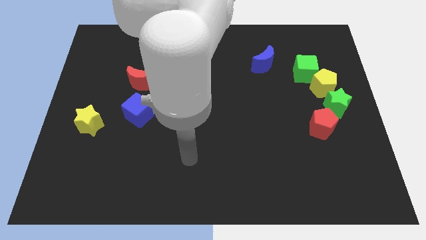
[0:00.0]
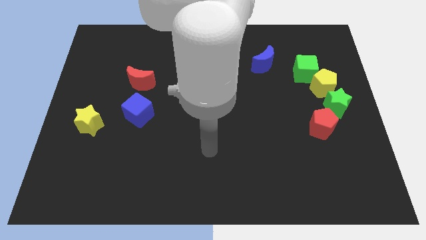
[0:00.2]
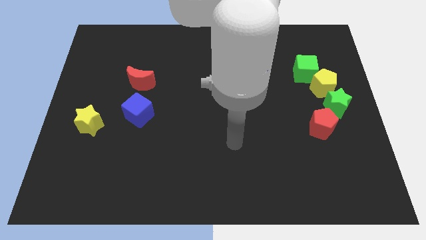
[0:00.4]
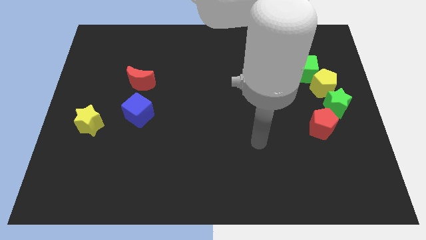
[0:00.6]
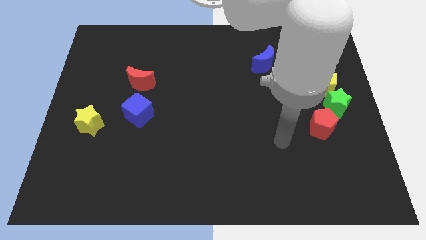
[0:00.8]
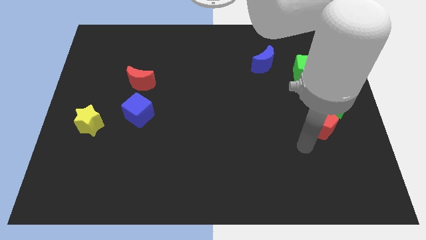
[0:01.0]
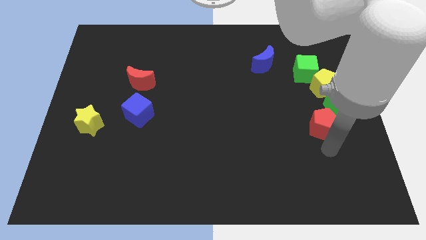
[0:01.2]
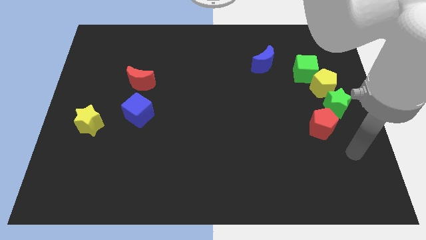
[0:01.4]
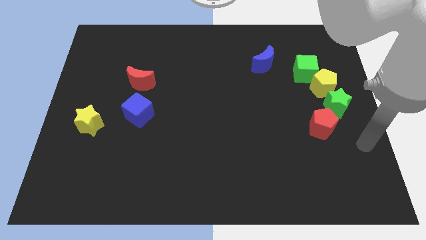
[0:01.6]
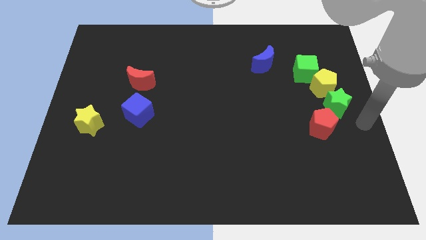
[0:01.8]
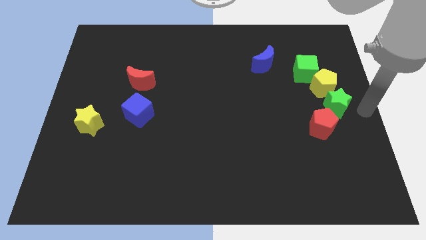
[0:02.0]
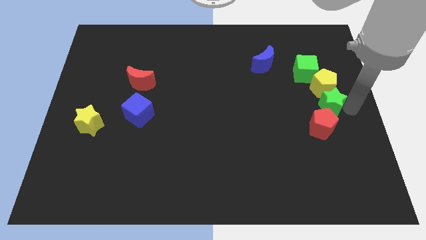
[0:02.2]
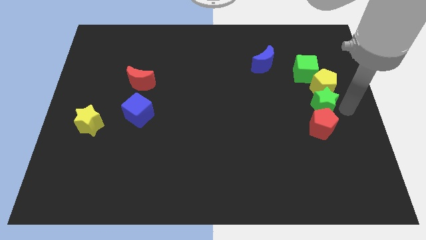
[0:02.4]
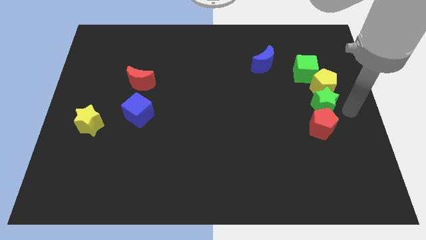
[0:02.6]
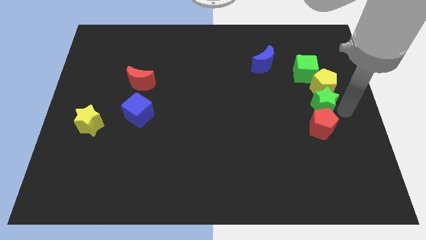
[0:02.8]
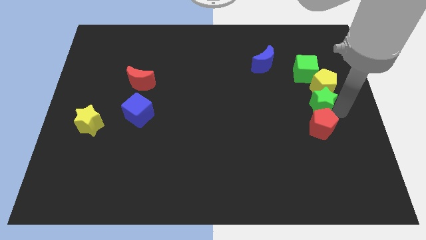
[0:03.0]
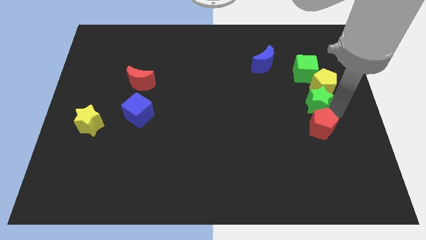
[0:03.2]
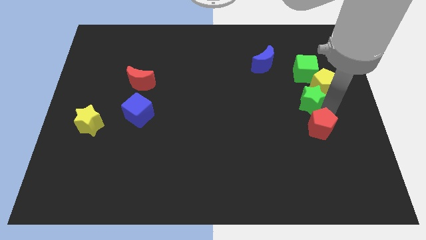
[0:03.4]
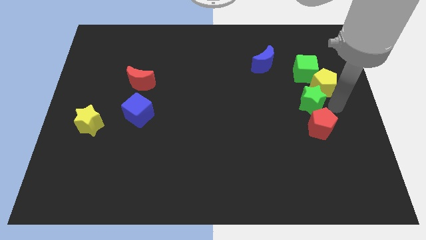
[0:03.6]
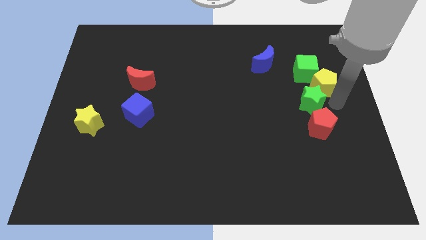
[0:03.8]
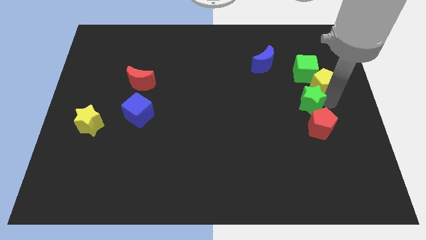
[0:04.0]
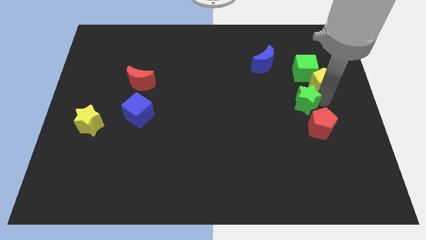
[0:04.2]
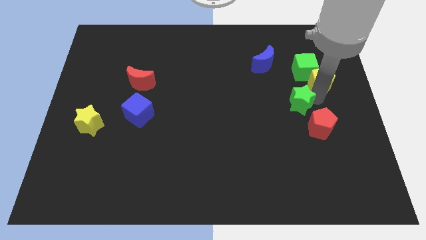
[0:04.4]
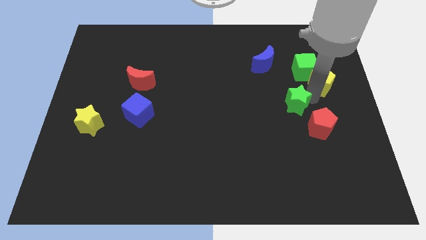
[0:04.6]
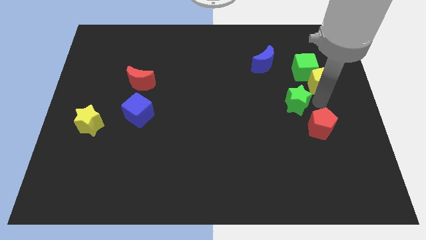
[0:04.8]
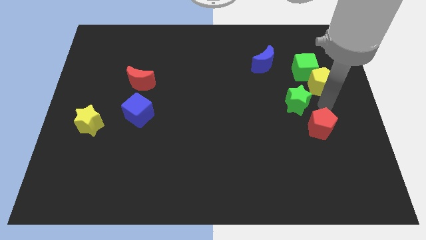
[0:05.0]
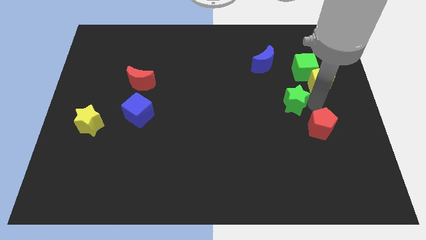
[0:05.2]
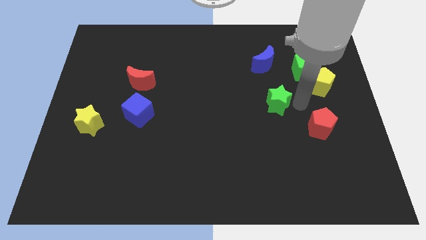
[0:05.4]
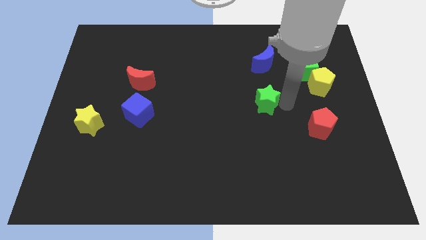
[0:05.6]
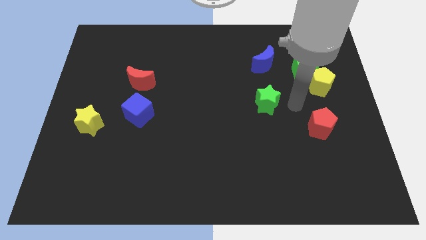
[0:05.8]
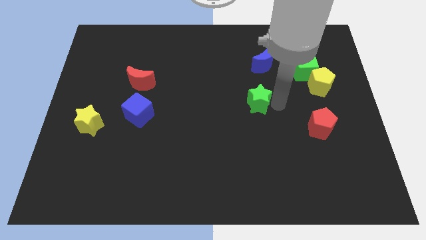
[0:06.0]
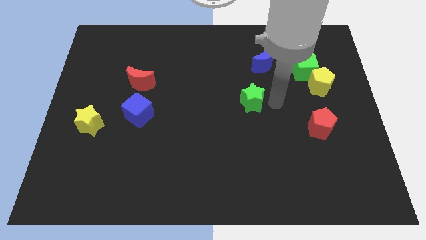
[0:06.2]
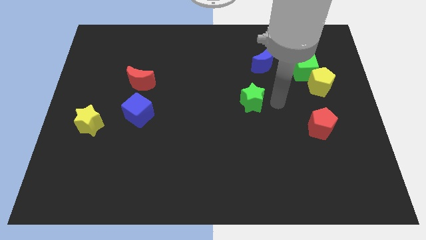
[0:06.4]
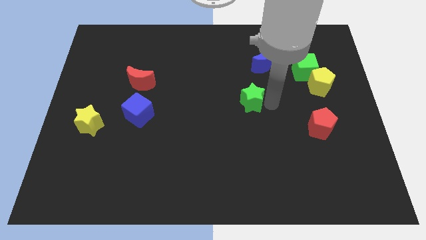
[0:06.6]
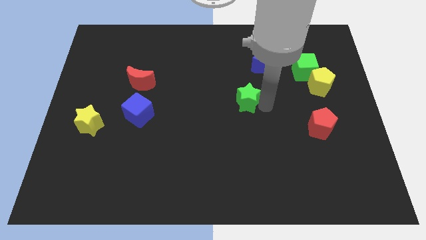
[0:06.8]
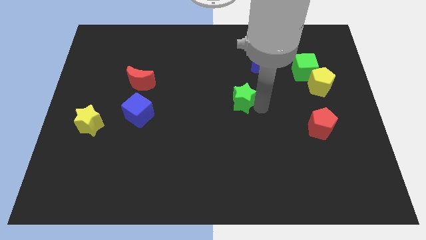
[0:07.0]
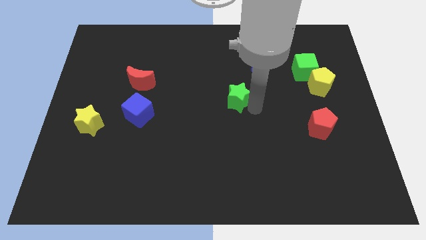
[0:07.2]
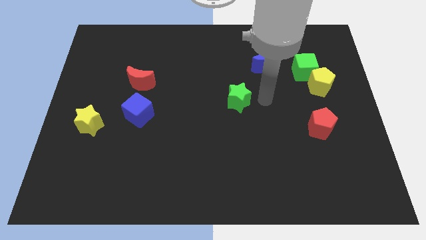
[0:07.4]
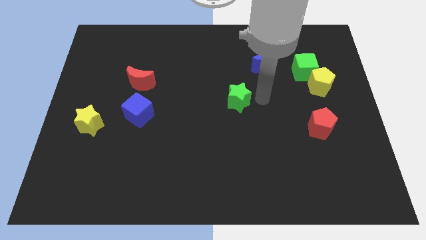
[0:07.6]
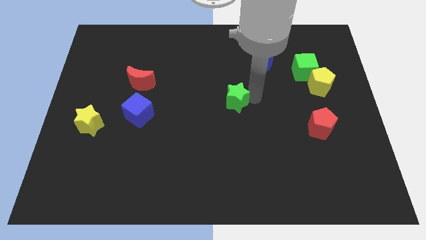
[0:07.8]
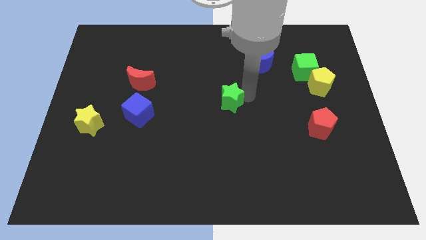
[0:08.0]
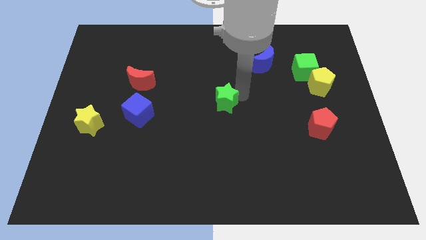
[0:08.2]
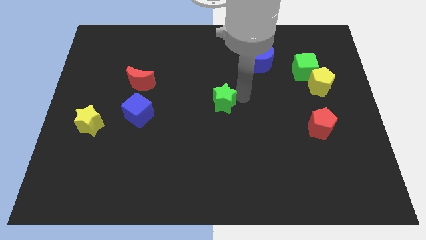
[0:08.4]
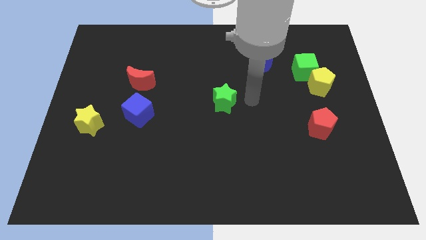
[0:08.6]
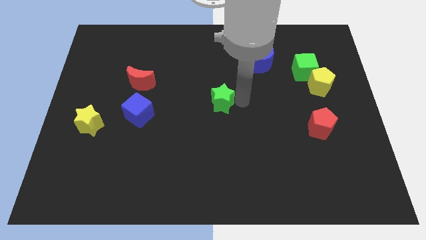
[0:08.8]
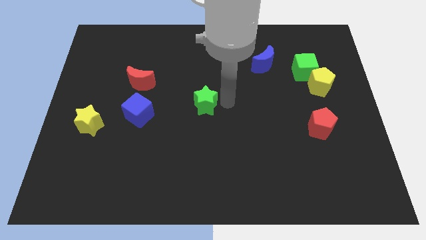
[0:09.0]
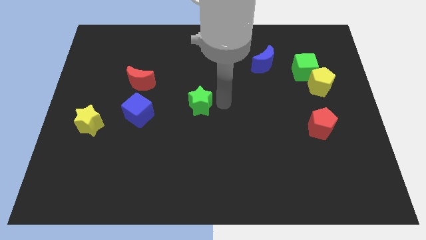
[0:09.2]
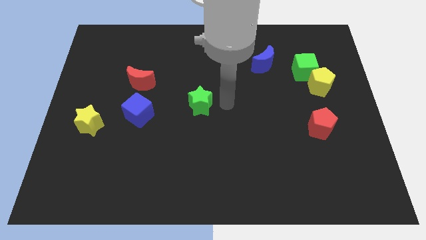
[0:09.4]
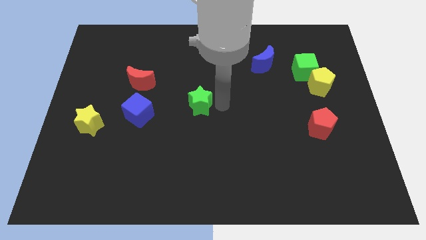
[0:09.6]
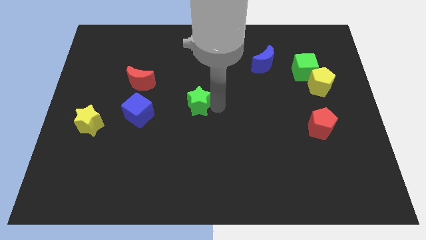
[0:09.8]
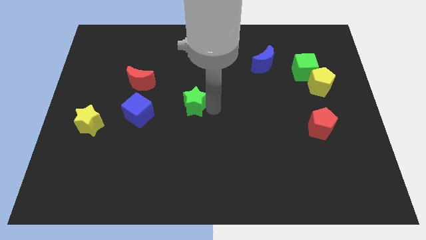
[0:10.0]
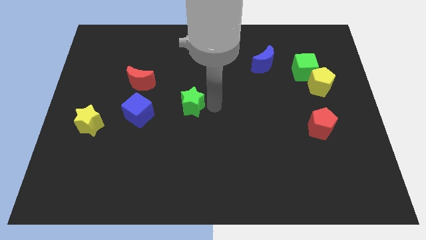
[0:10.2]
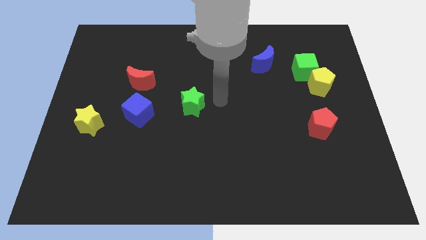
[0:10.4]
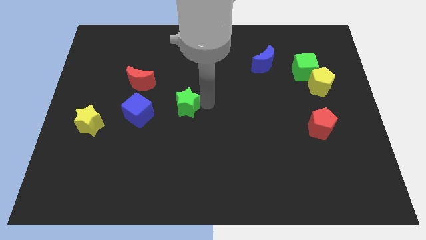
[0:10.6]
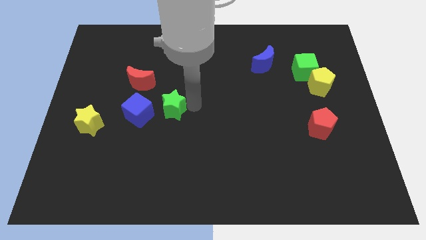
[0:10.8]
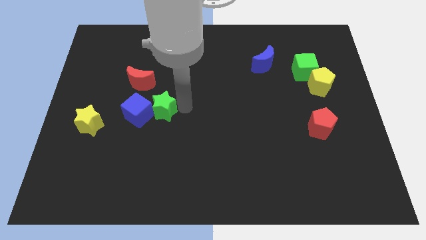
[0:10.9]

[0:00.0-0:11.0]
put the green star next to the blue cube
